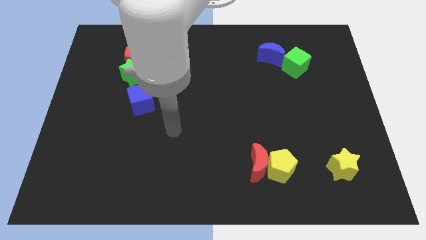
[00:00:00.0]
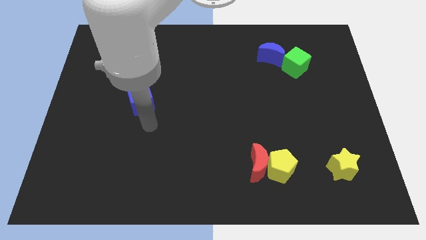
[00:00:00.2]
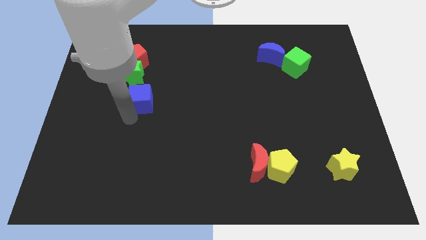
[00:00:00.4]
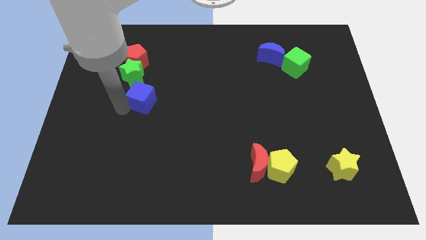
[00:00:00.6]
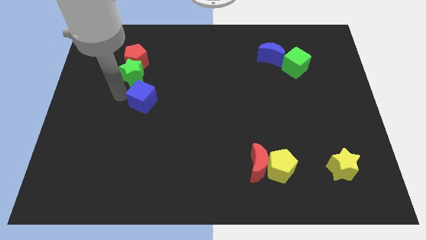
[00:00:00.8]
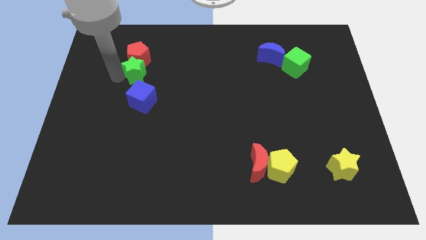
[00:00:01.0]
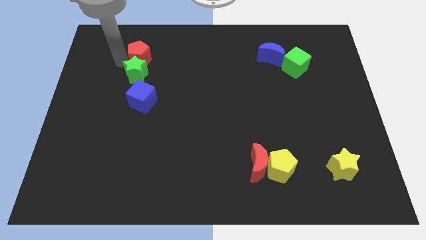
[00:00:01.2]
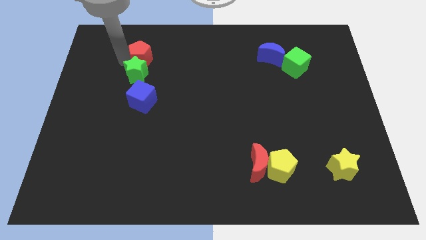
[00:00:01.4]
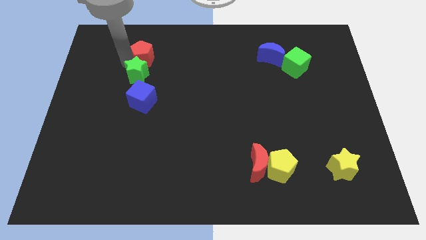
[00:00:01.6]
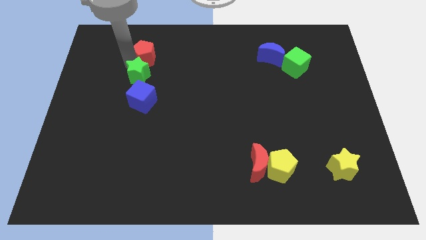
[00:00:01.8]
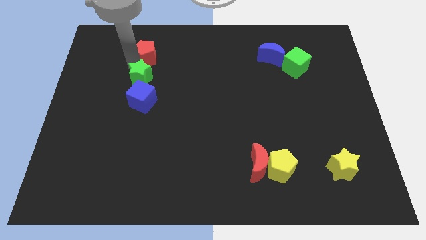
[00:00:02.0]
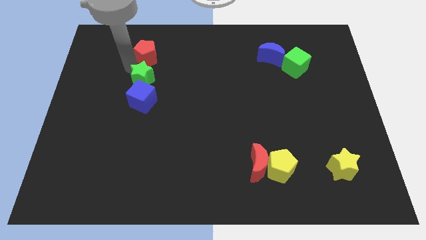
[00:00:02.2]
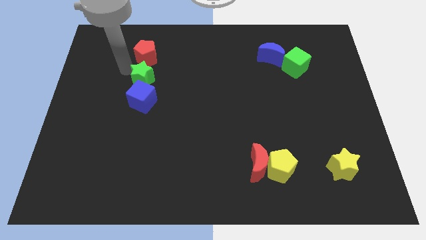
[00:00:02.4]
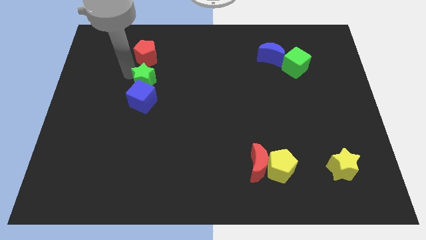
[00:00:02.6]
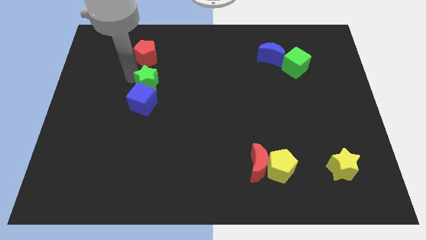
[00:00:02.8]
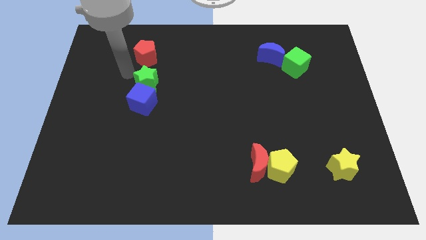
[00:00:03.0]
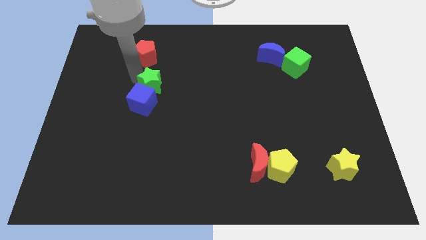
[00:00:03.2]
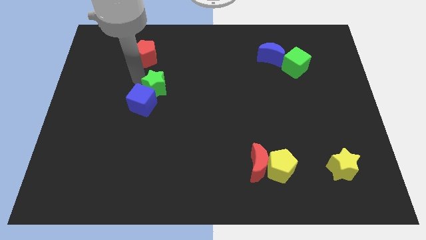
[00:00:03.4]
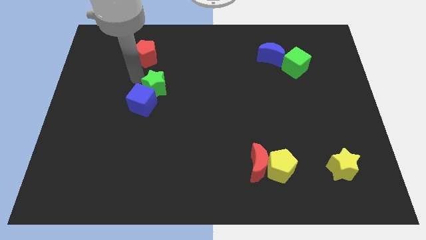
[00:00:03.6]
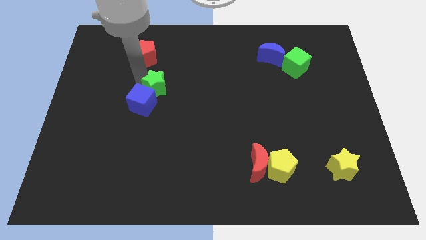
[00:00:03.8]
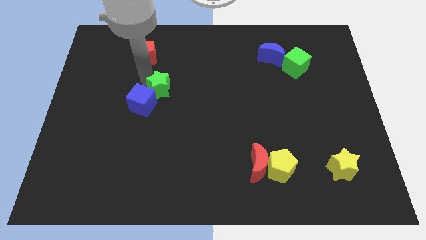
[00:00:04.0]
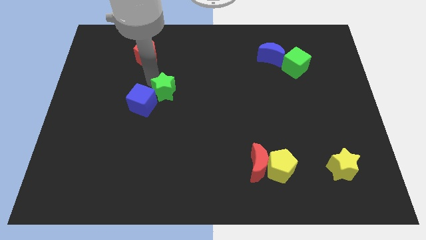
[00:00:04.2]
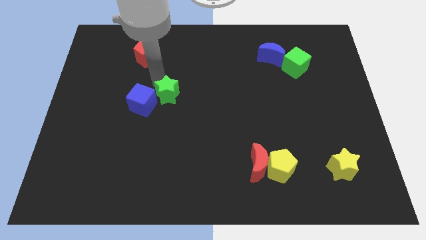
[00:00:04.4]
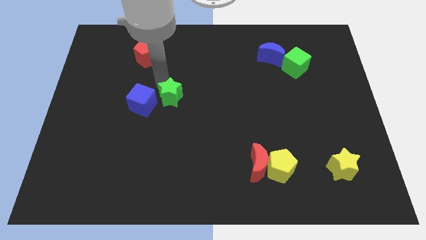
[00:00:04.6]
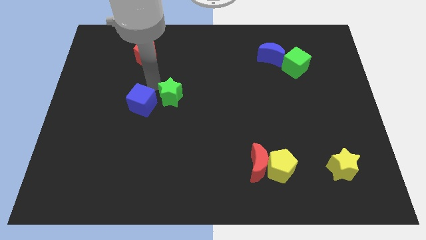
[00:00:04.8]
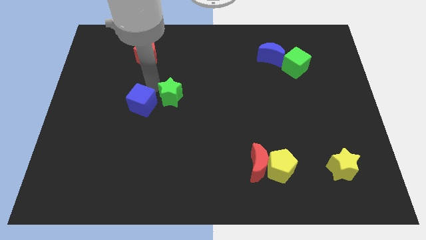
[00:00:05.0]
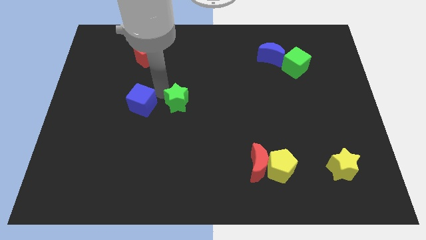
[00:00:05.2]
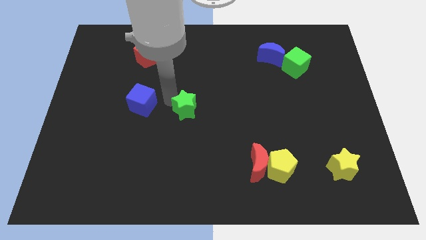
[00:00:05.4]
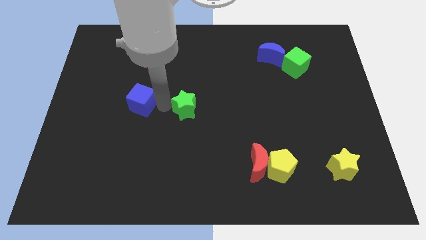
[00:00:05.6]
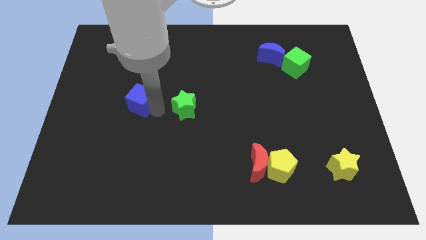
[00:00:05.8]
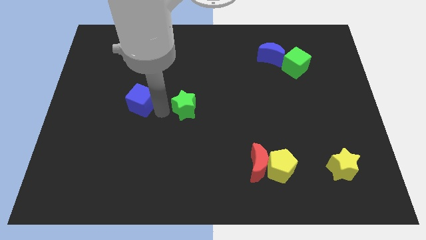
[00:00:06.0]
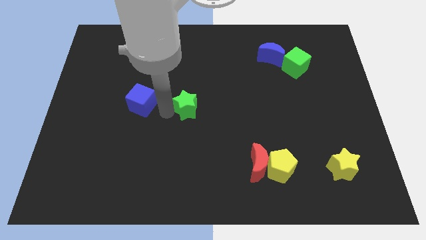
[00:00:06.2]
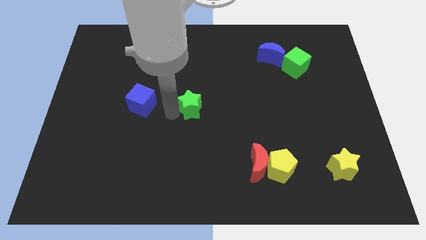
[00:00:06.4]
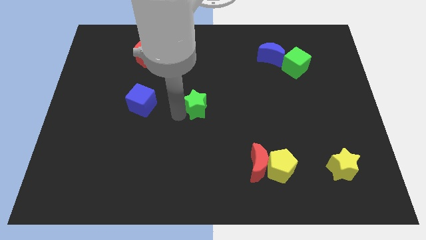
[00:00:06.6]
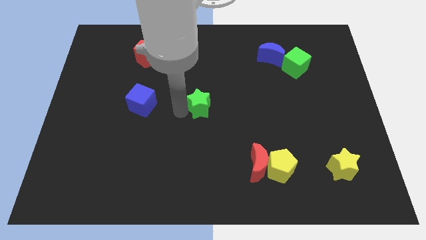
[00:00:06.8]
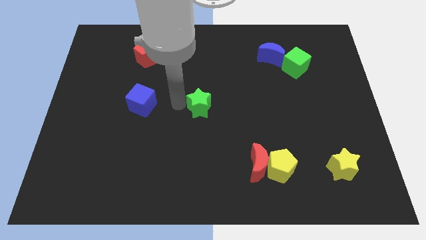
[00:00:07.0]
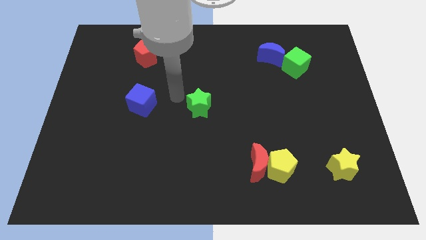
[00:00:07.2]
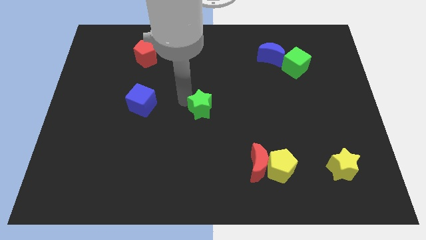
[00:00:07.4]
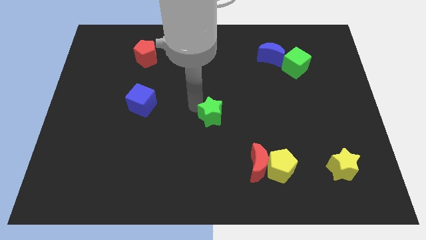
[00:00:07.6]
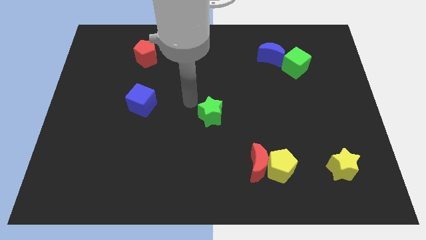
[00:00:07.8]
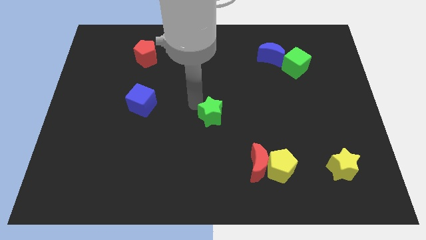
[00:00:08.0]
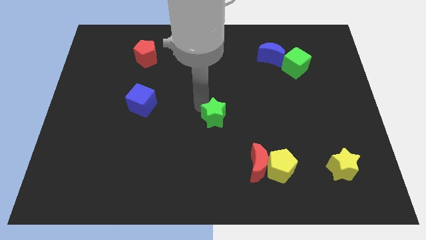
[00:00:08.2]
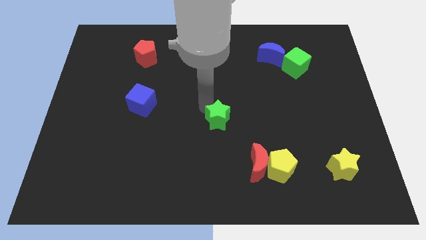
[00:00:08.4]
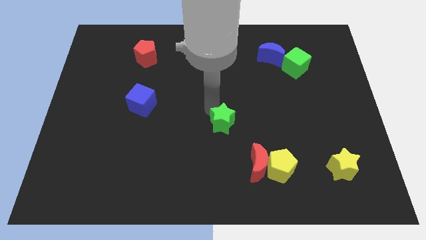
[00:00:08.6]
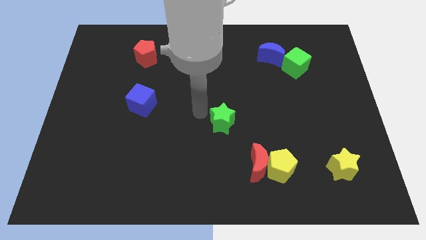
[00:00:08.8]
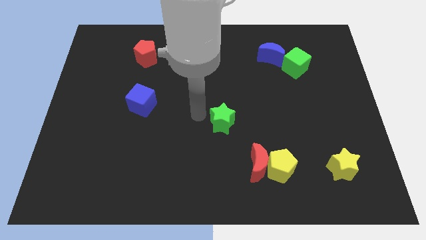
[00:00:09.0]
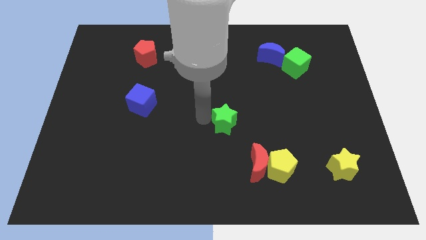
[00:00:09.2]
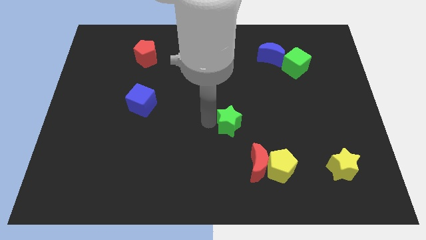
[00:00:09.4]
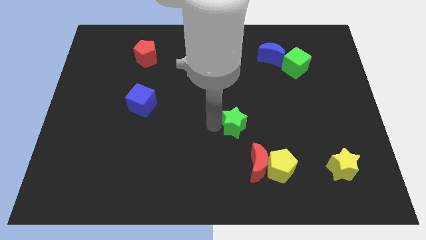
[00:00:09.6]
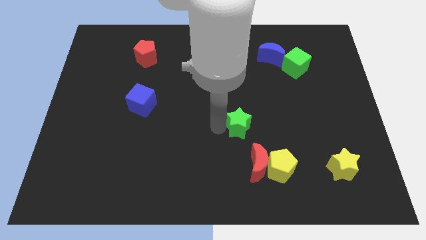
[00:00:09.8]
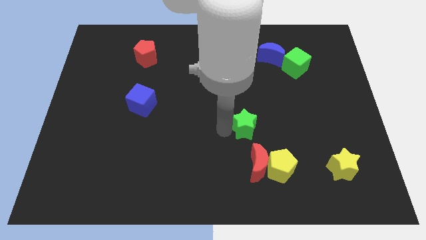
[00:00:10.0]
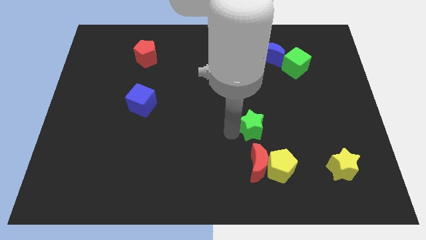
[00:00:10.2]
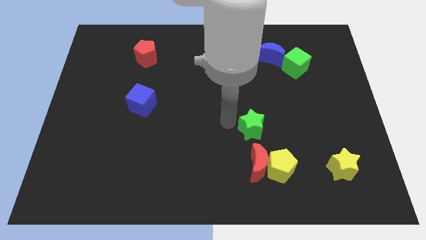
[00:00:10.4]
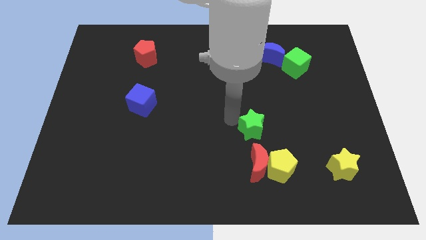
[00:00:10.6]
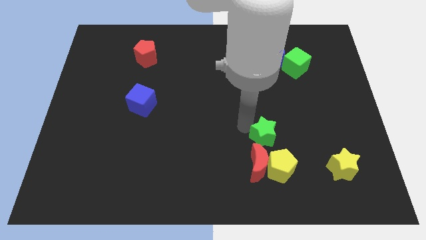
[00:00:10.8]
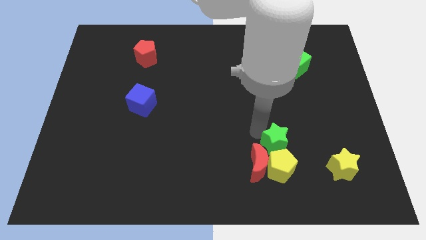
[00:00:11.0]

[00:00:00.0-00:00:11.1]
move the green star close to the yellow pentagon

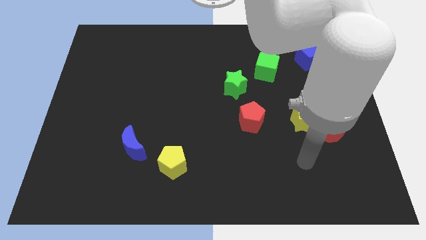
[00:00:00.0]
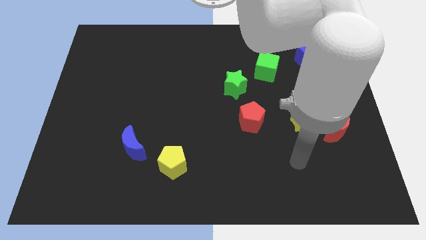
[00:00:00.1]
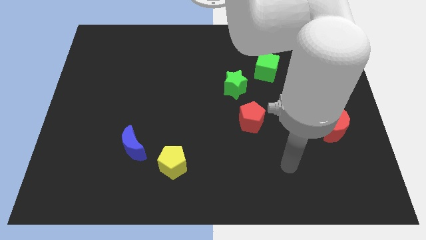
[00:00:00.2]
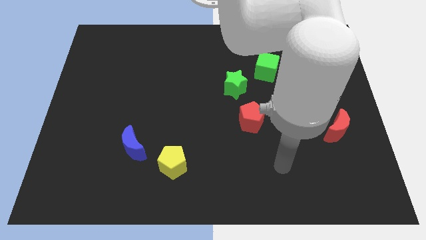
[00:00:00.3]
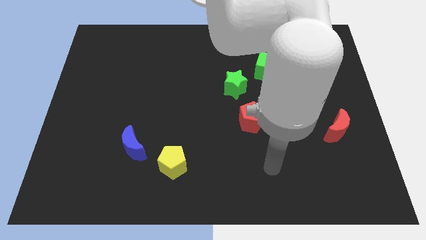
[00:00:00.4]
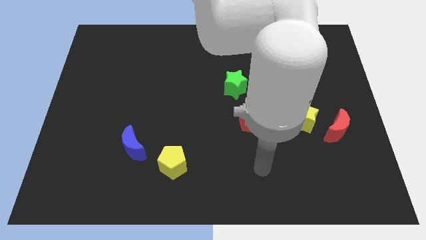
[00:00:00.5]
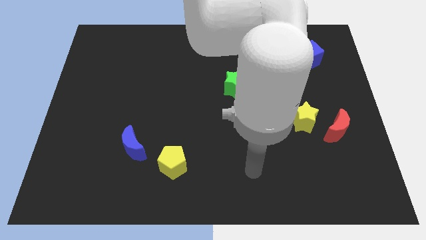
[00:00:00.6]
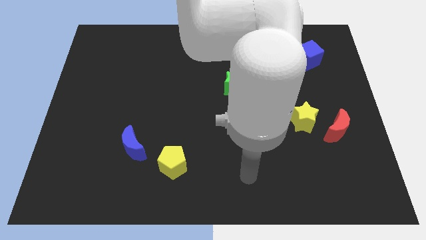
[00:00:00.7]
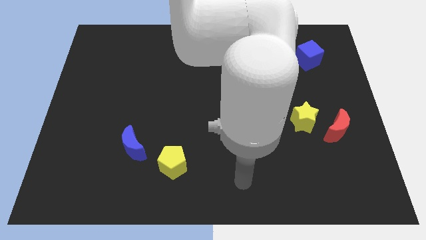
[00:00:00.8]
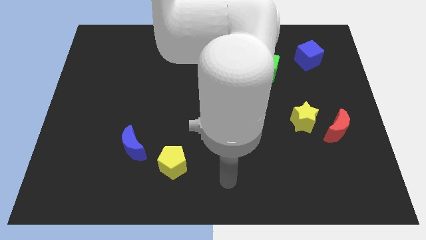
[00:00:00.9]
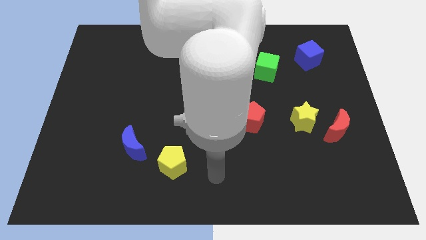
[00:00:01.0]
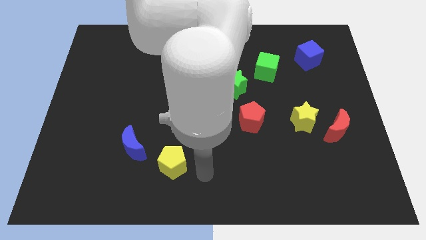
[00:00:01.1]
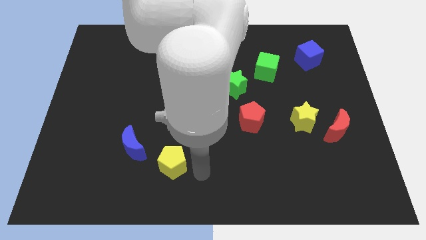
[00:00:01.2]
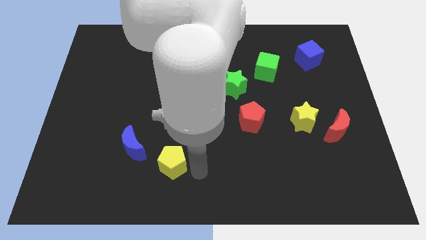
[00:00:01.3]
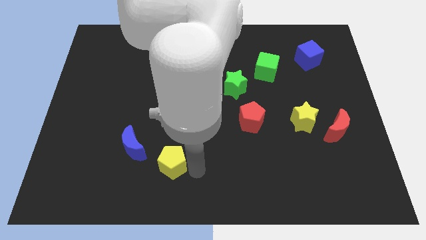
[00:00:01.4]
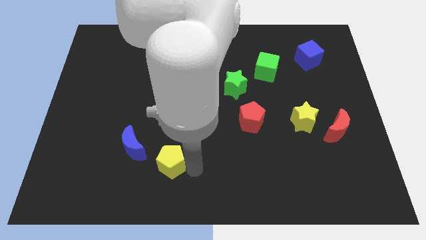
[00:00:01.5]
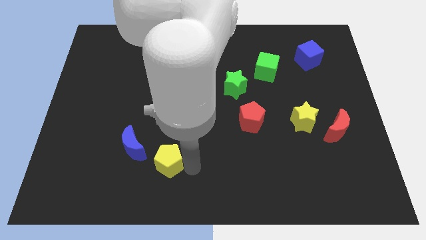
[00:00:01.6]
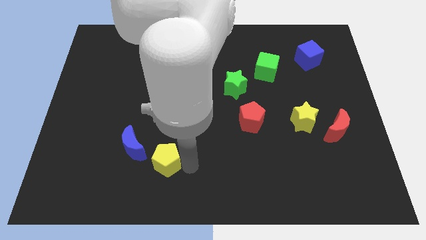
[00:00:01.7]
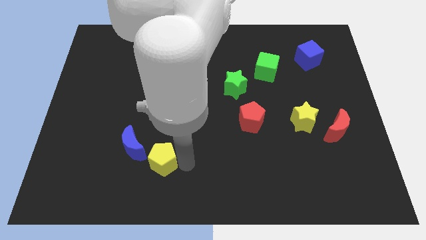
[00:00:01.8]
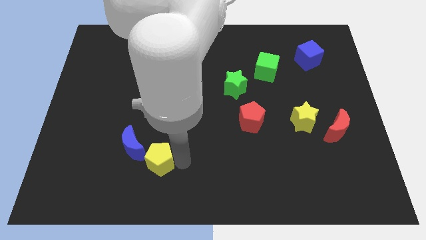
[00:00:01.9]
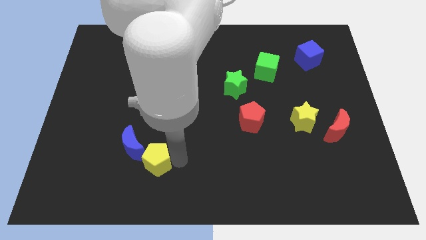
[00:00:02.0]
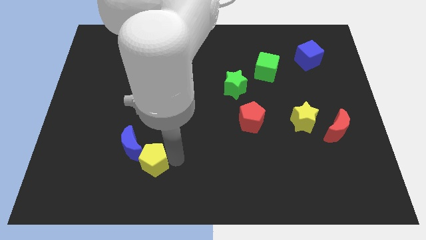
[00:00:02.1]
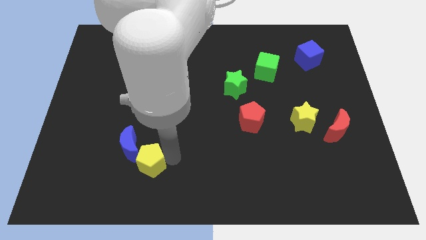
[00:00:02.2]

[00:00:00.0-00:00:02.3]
push the yellow pentagon to the blue moon
